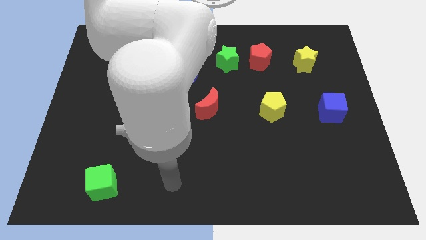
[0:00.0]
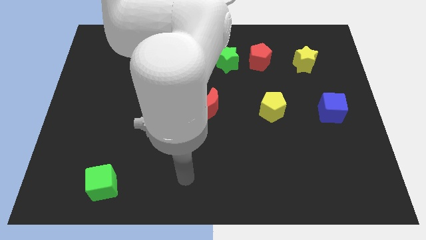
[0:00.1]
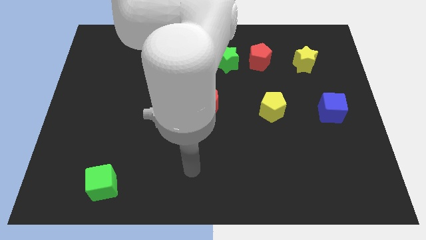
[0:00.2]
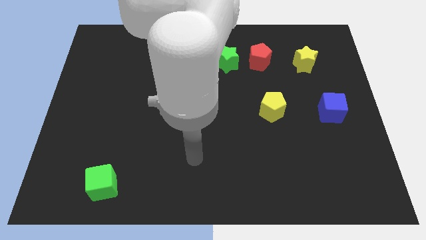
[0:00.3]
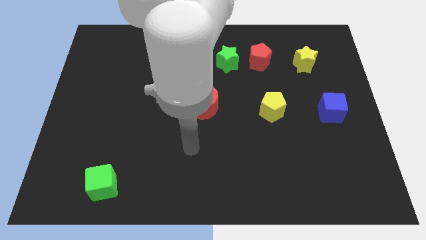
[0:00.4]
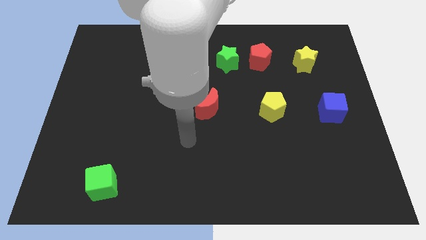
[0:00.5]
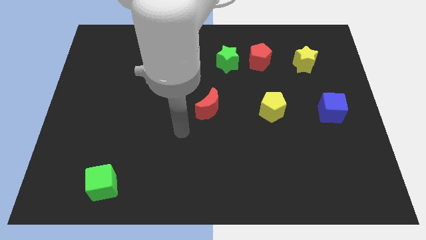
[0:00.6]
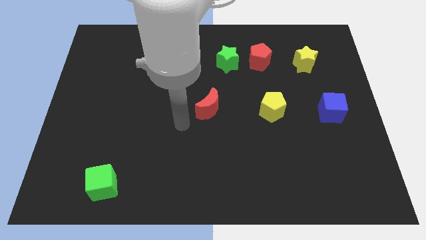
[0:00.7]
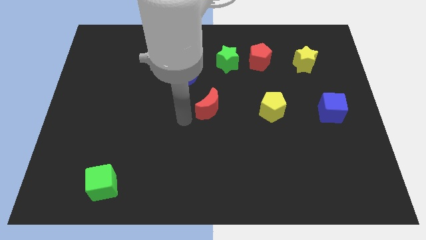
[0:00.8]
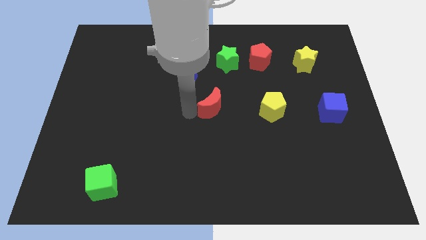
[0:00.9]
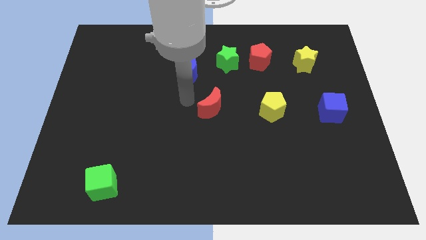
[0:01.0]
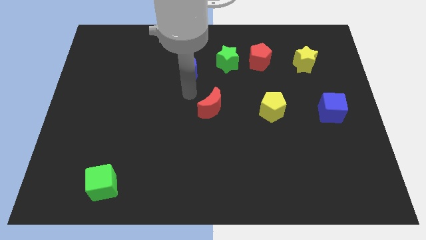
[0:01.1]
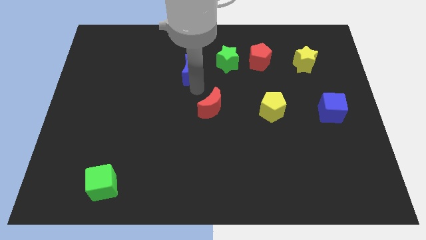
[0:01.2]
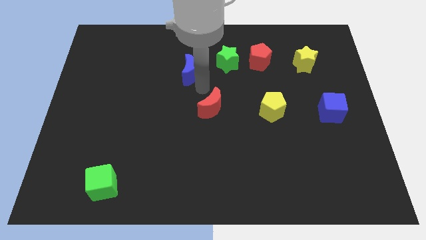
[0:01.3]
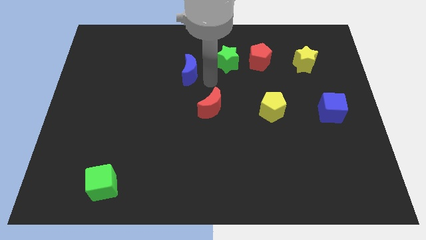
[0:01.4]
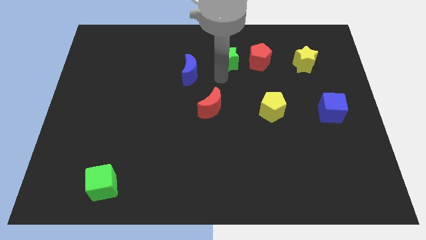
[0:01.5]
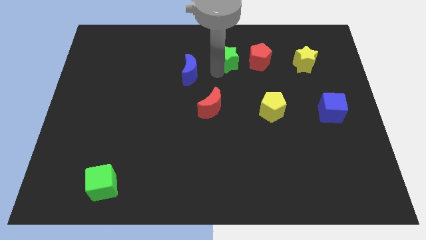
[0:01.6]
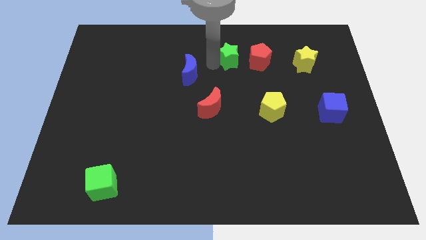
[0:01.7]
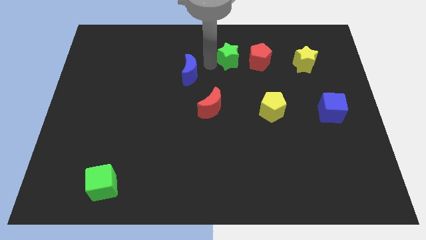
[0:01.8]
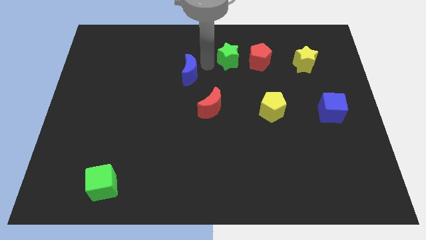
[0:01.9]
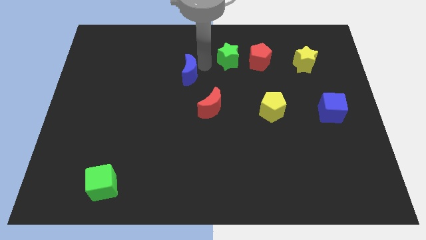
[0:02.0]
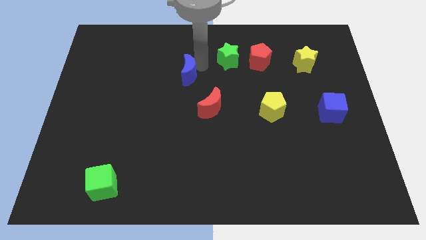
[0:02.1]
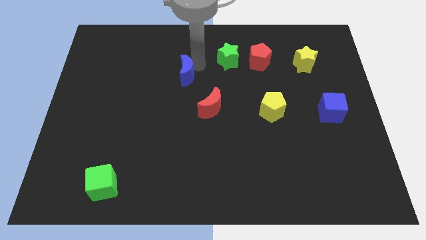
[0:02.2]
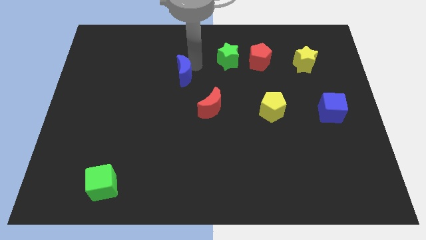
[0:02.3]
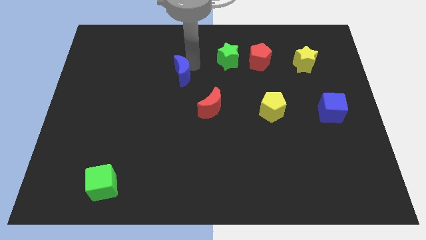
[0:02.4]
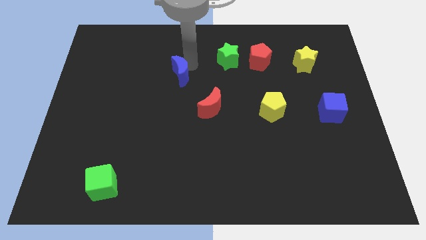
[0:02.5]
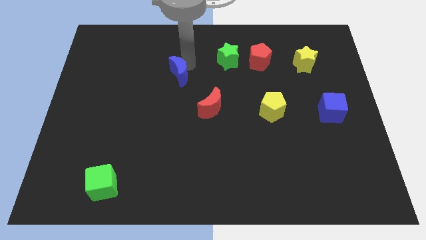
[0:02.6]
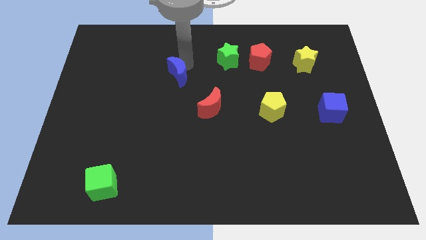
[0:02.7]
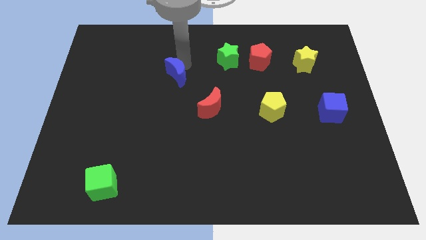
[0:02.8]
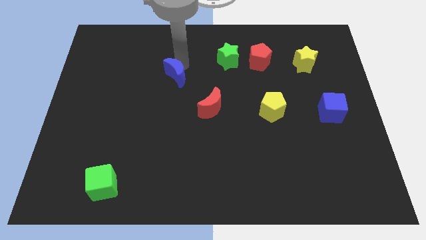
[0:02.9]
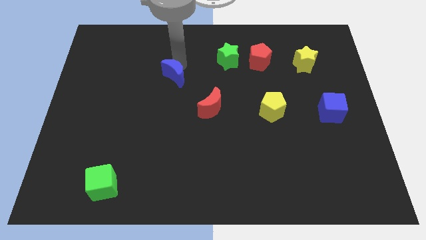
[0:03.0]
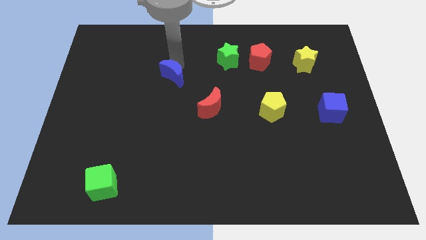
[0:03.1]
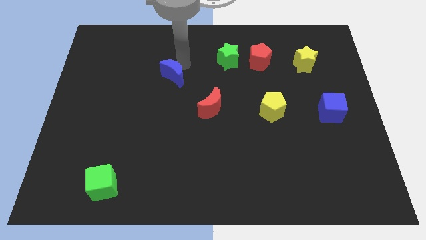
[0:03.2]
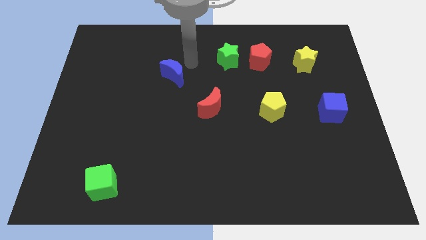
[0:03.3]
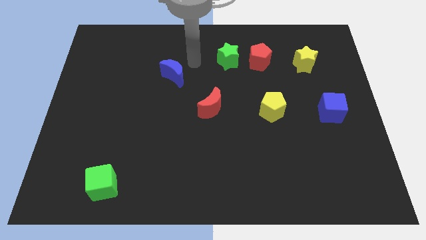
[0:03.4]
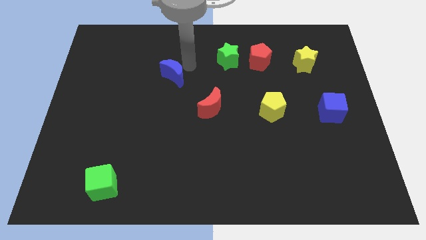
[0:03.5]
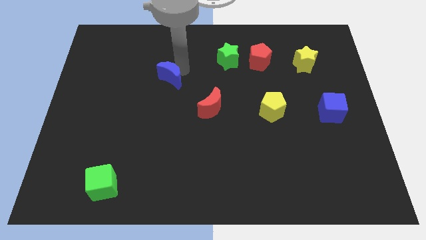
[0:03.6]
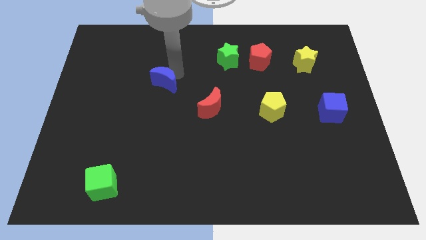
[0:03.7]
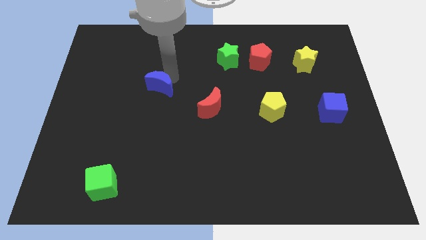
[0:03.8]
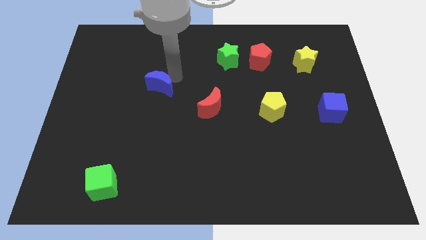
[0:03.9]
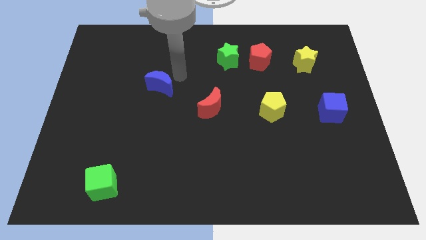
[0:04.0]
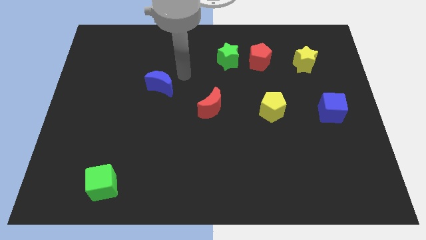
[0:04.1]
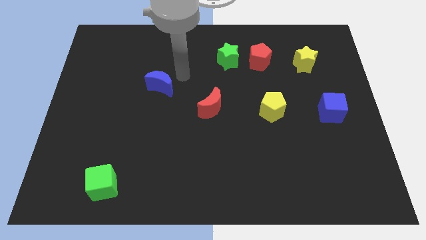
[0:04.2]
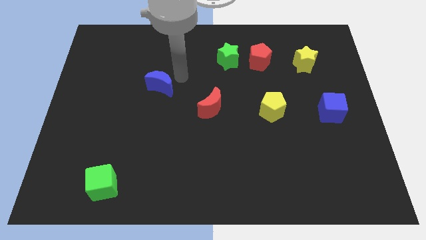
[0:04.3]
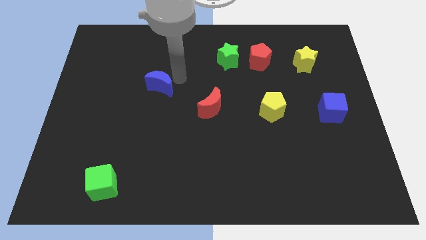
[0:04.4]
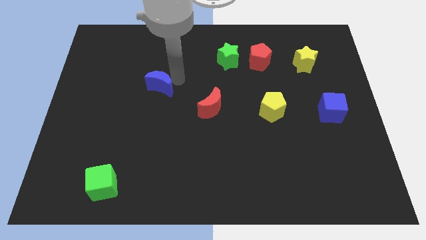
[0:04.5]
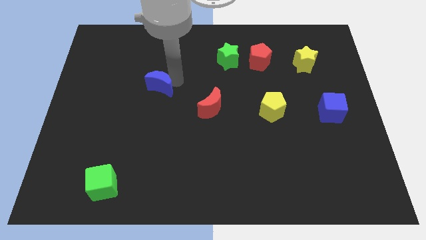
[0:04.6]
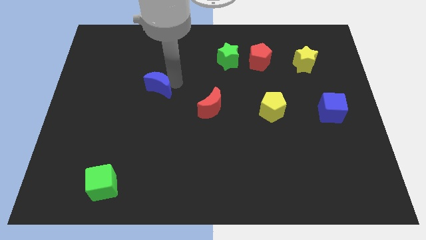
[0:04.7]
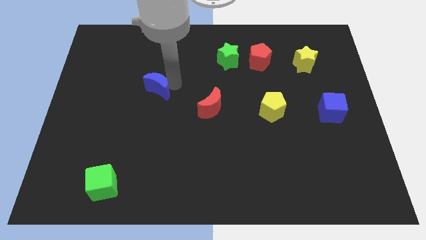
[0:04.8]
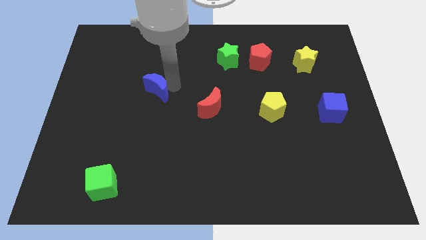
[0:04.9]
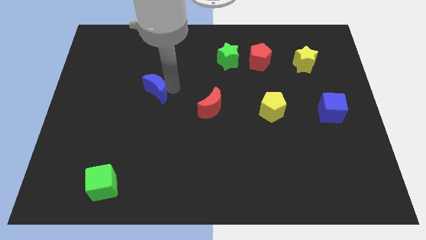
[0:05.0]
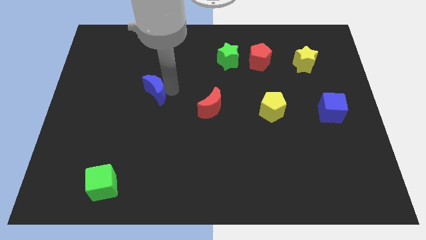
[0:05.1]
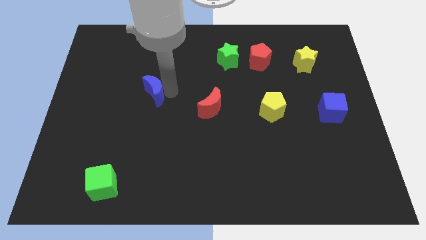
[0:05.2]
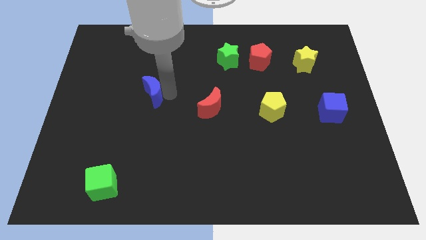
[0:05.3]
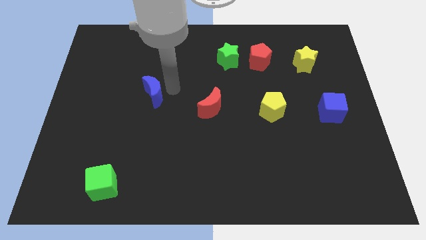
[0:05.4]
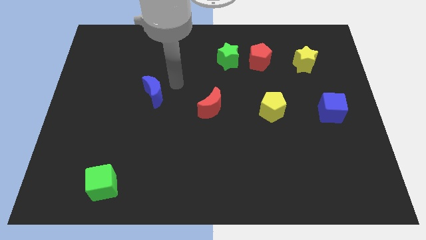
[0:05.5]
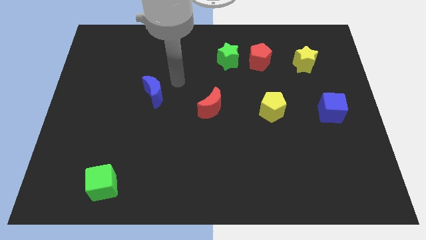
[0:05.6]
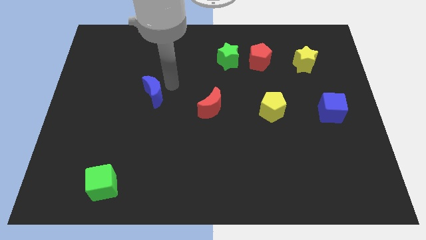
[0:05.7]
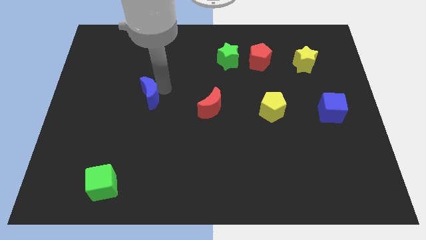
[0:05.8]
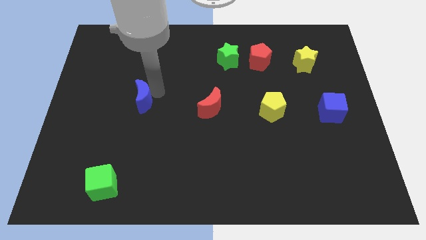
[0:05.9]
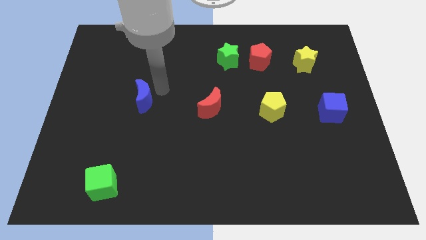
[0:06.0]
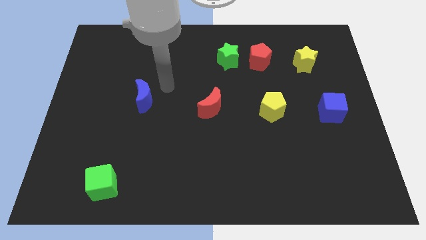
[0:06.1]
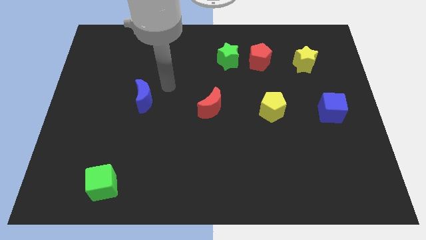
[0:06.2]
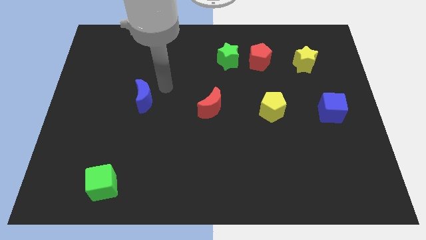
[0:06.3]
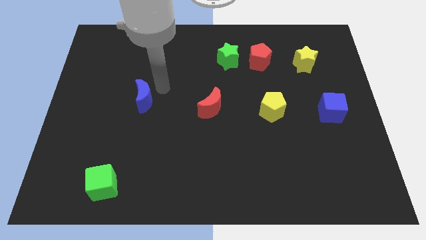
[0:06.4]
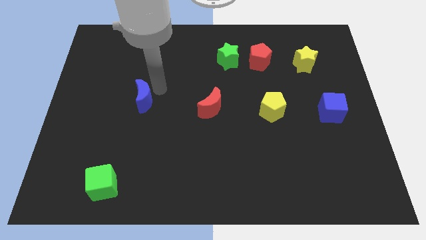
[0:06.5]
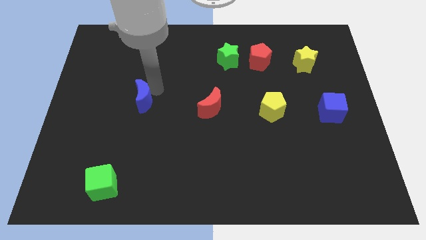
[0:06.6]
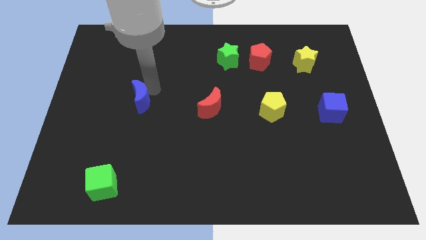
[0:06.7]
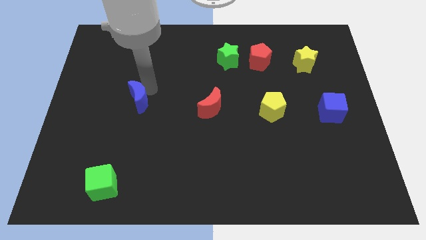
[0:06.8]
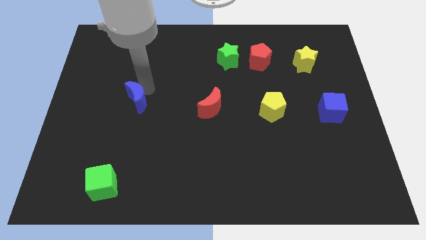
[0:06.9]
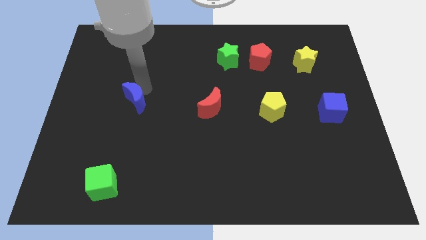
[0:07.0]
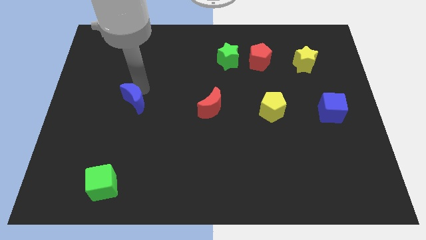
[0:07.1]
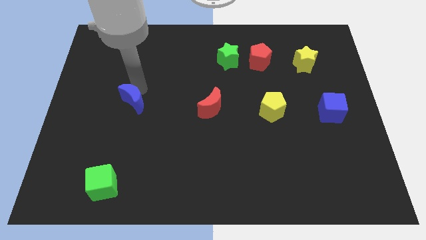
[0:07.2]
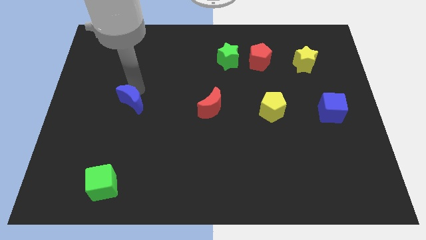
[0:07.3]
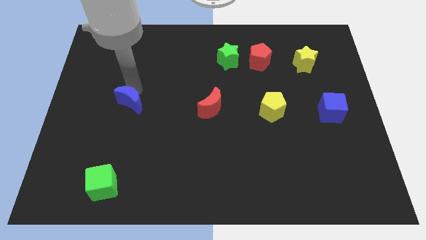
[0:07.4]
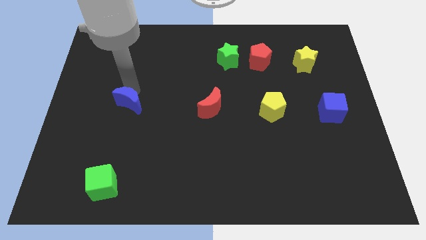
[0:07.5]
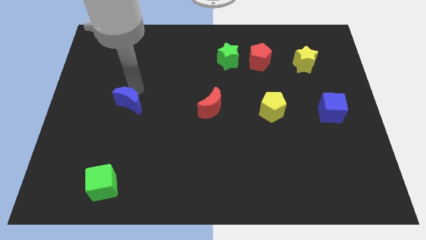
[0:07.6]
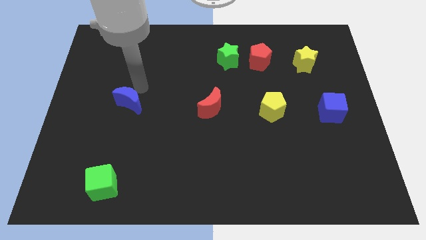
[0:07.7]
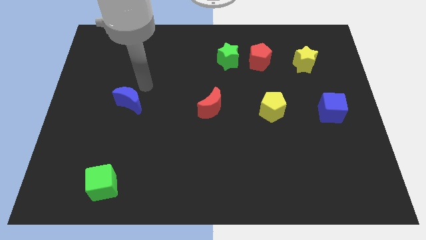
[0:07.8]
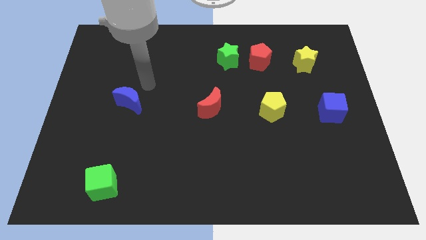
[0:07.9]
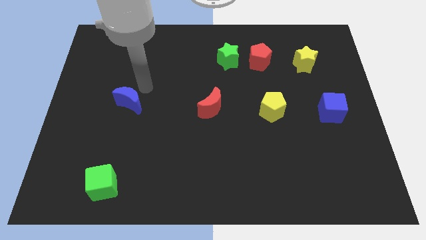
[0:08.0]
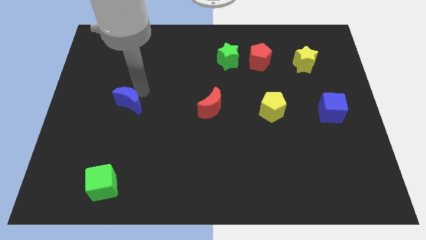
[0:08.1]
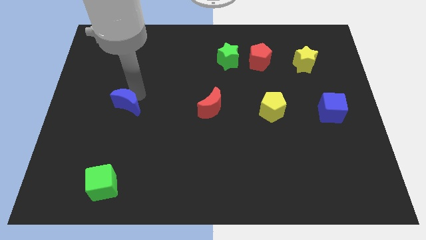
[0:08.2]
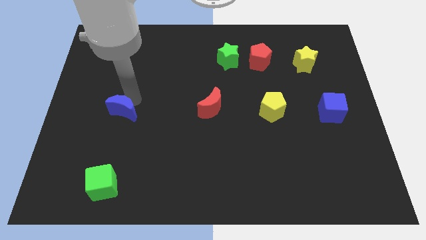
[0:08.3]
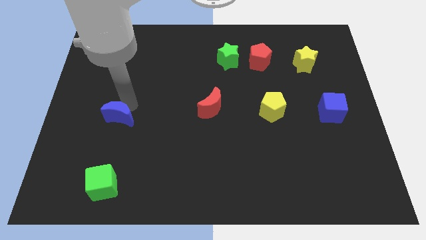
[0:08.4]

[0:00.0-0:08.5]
move the blue moon down and then left
